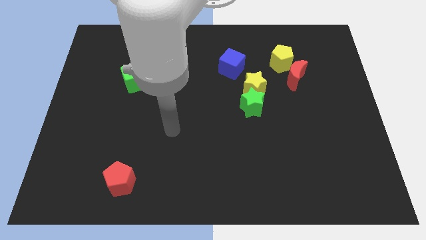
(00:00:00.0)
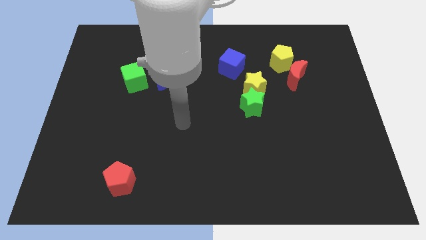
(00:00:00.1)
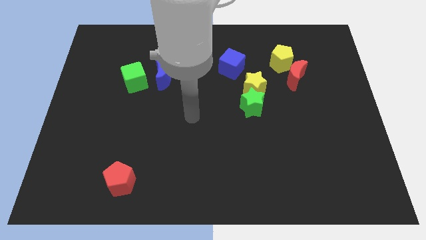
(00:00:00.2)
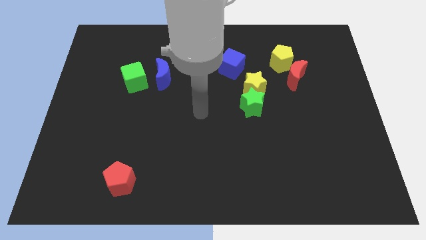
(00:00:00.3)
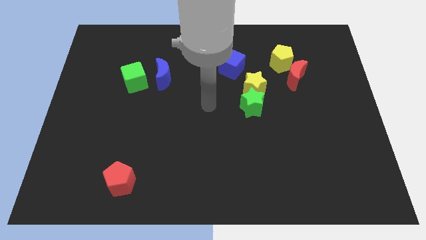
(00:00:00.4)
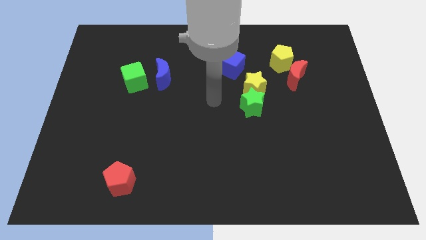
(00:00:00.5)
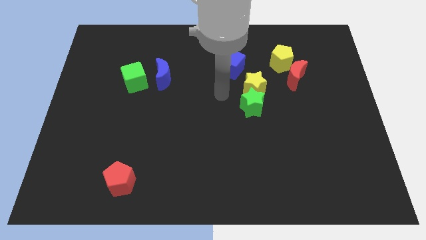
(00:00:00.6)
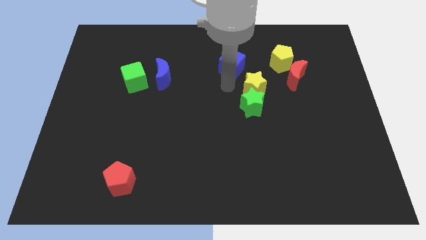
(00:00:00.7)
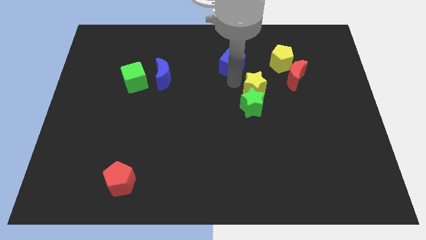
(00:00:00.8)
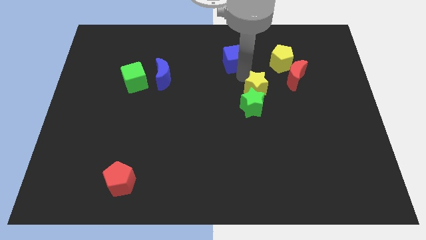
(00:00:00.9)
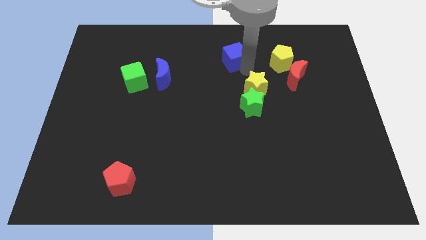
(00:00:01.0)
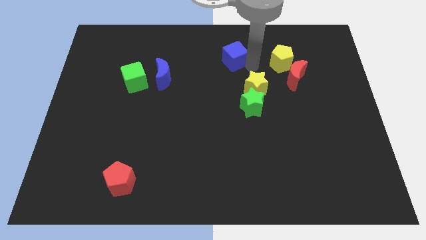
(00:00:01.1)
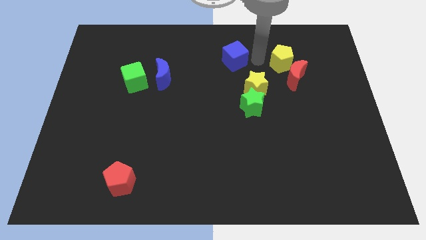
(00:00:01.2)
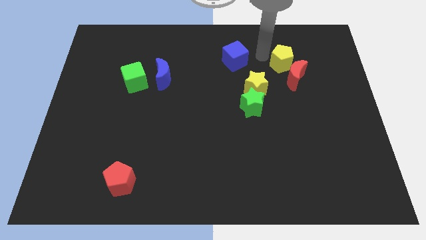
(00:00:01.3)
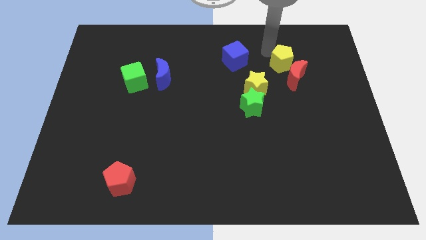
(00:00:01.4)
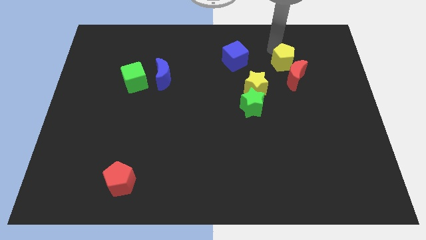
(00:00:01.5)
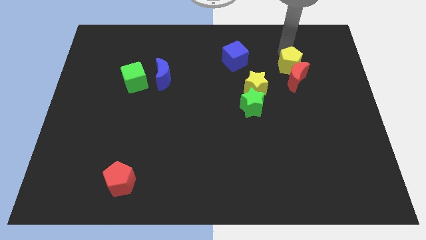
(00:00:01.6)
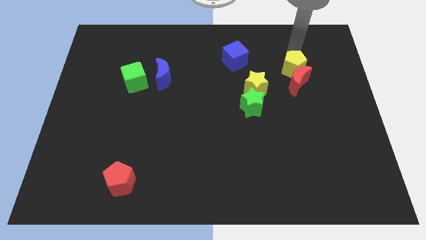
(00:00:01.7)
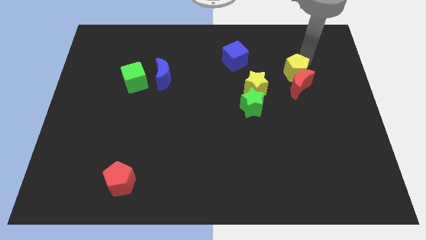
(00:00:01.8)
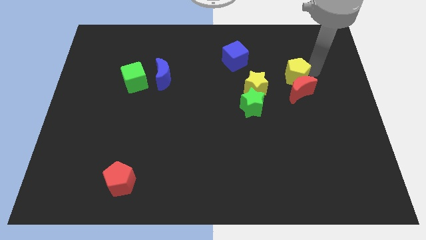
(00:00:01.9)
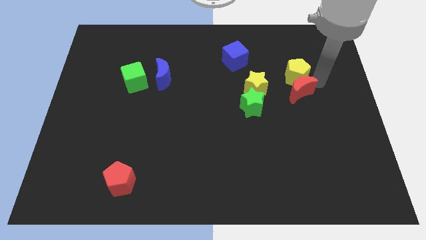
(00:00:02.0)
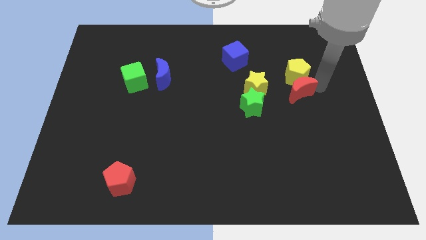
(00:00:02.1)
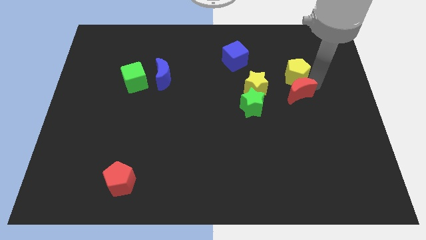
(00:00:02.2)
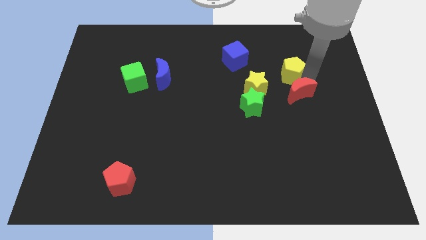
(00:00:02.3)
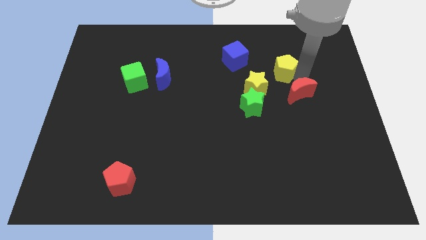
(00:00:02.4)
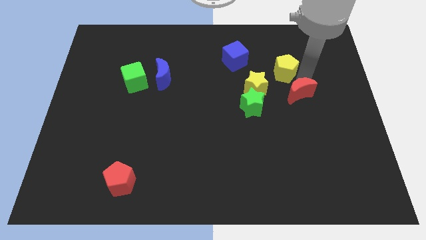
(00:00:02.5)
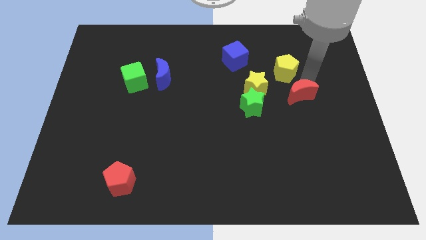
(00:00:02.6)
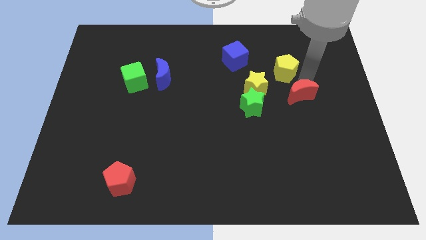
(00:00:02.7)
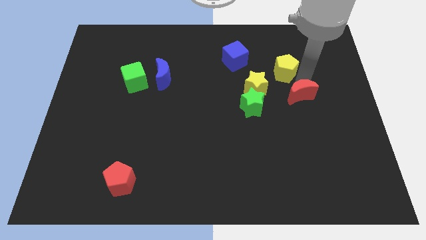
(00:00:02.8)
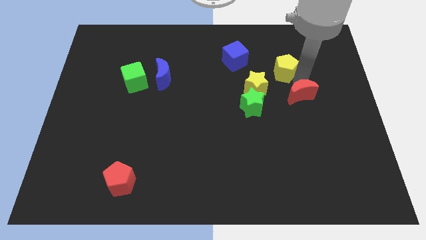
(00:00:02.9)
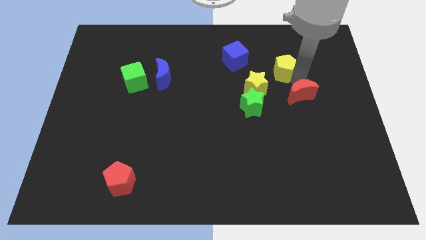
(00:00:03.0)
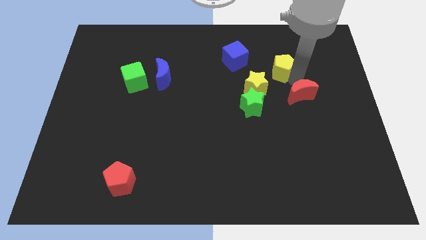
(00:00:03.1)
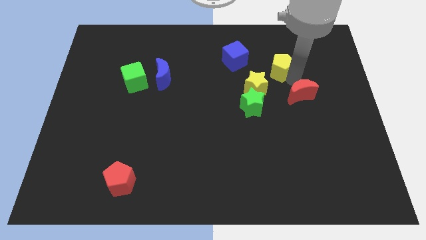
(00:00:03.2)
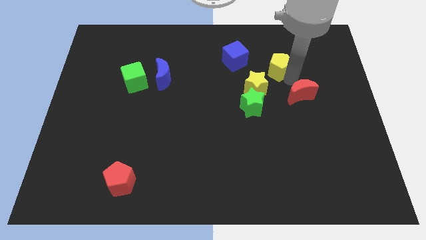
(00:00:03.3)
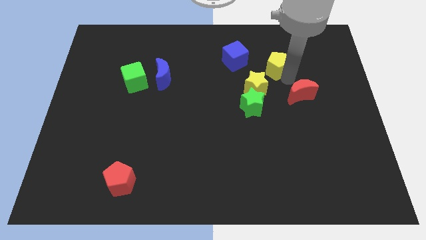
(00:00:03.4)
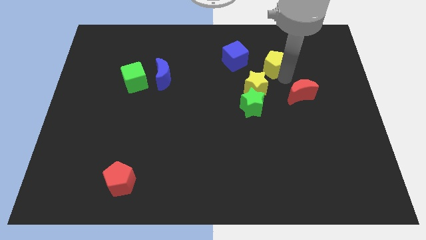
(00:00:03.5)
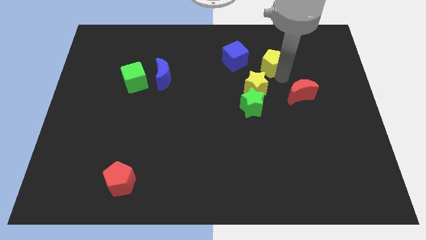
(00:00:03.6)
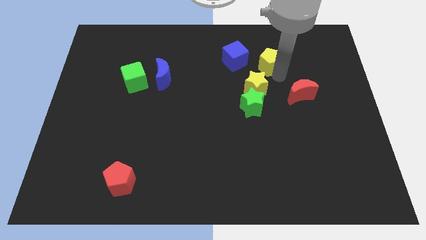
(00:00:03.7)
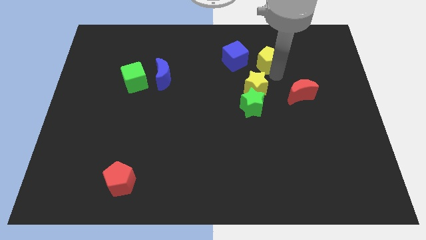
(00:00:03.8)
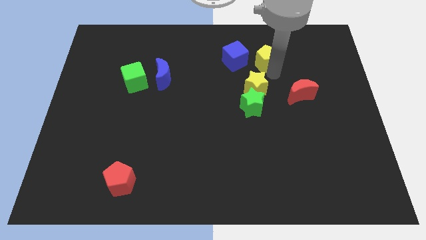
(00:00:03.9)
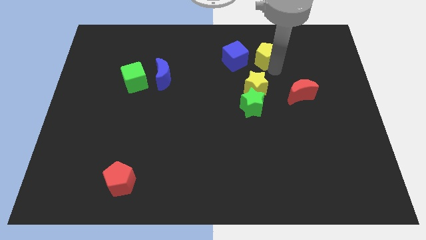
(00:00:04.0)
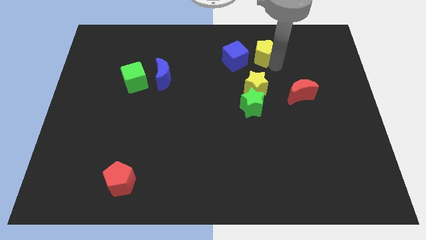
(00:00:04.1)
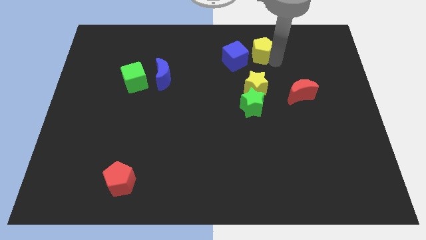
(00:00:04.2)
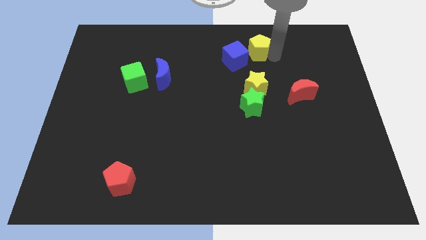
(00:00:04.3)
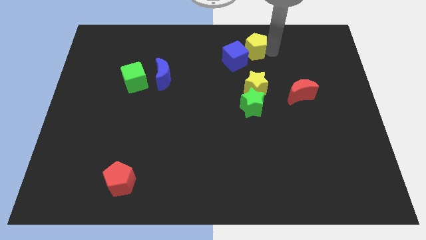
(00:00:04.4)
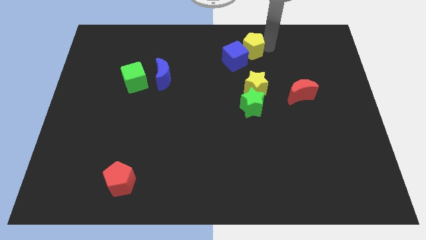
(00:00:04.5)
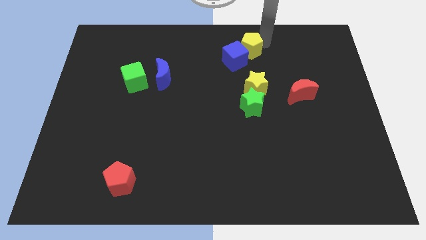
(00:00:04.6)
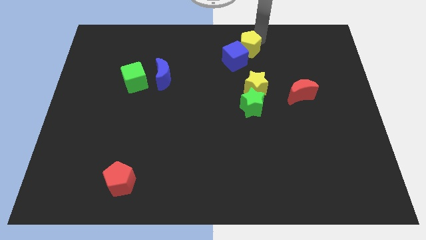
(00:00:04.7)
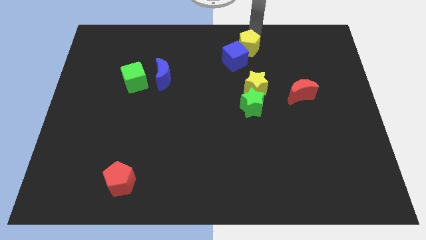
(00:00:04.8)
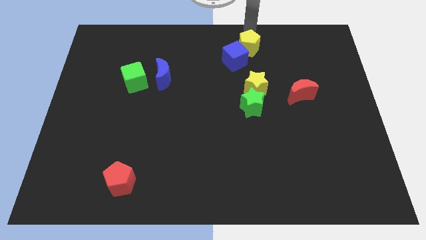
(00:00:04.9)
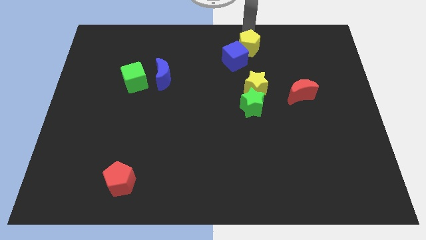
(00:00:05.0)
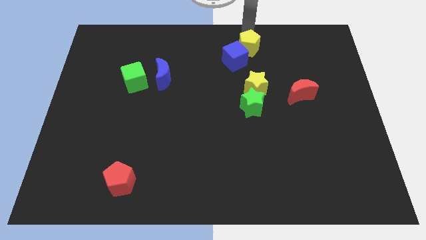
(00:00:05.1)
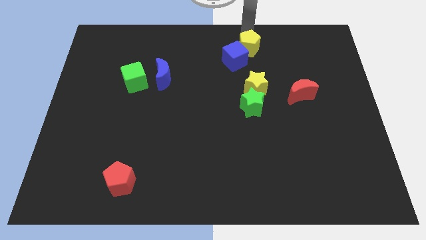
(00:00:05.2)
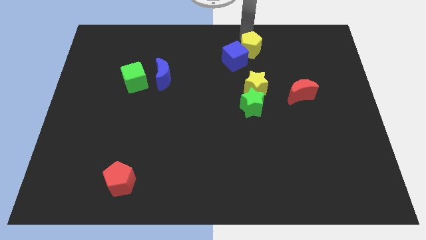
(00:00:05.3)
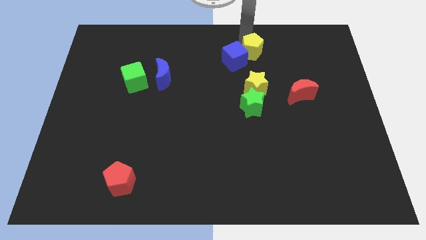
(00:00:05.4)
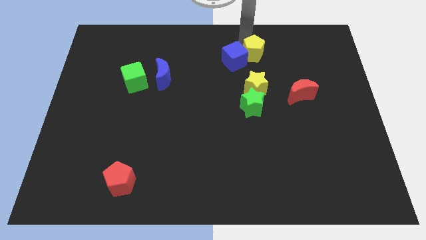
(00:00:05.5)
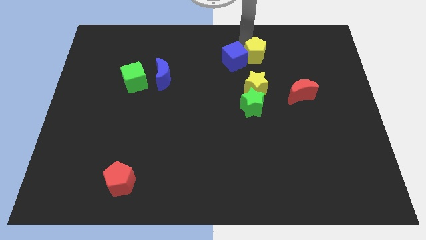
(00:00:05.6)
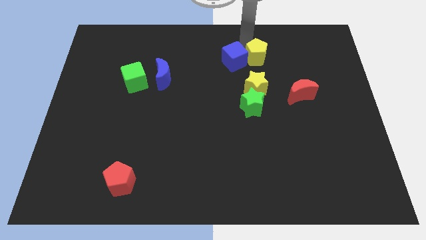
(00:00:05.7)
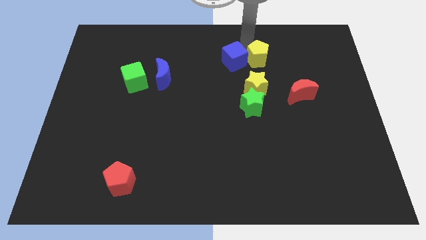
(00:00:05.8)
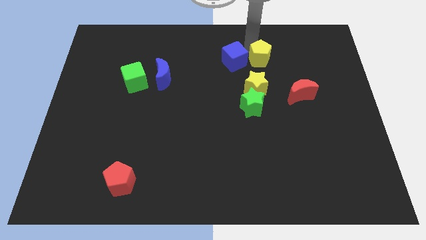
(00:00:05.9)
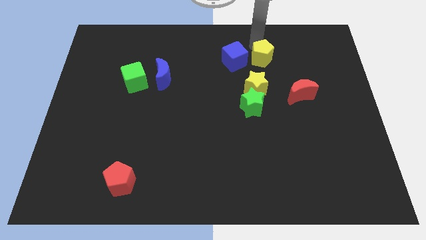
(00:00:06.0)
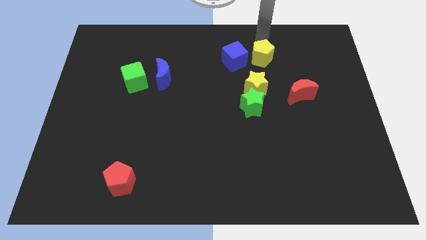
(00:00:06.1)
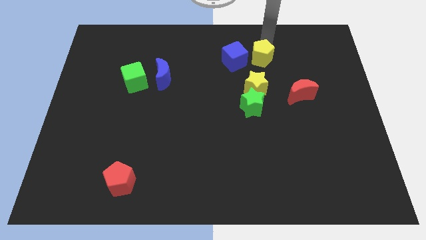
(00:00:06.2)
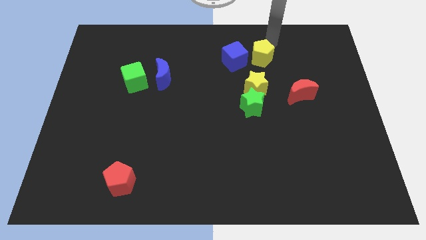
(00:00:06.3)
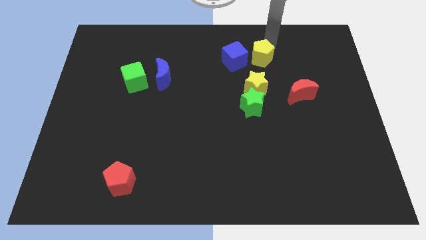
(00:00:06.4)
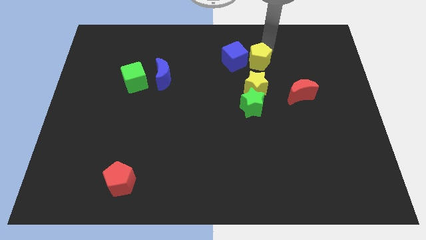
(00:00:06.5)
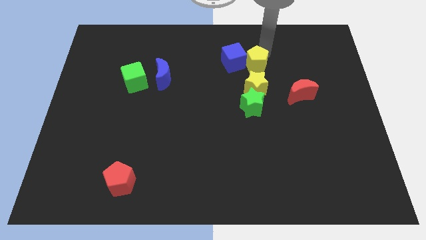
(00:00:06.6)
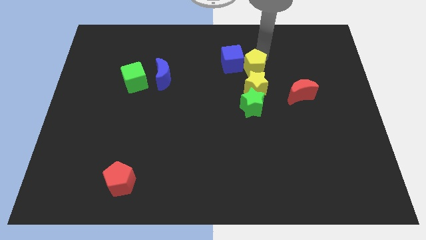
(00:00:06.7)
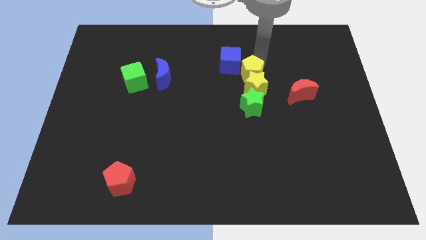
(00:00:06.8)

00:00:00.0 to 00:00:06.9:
slide the yellow pentagon a bit down and to the left

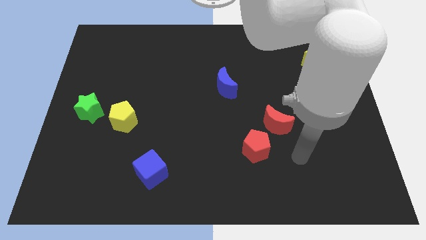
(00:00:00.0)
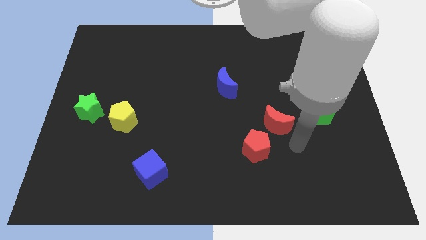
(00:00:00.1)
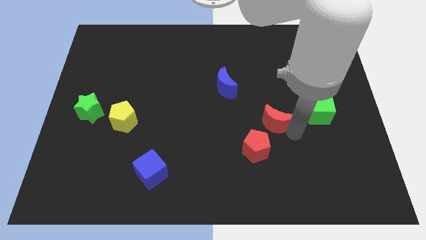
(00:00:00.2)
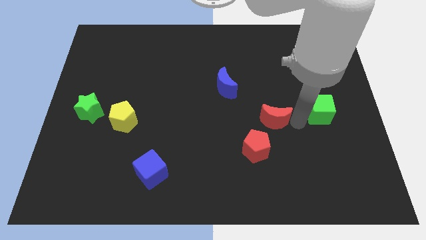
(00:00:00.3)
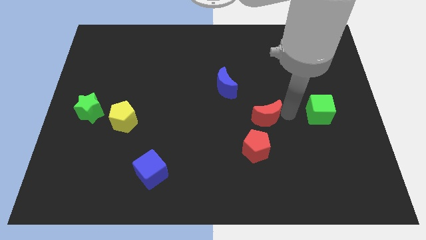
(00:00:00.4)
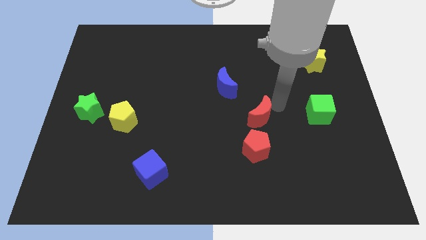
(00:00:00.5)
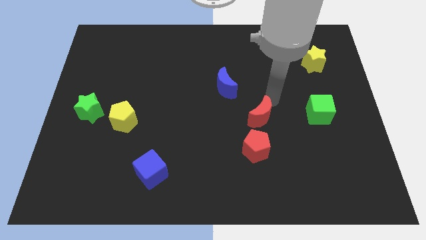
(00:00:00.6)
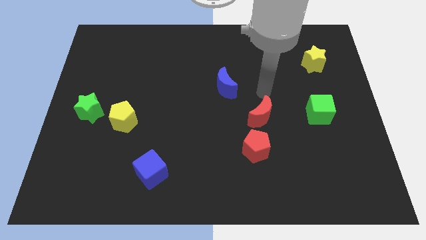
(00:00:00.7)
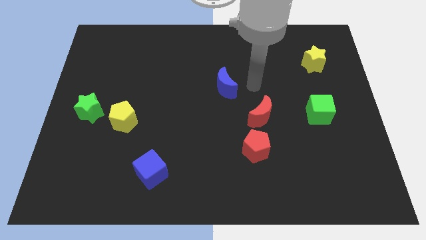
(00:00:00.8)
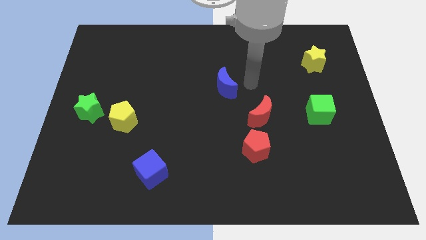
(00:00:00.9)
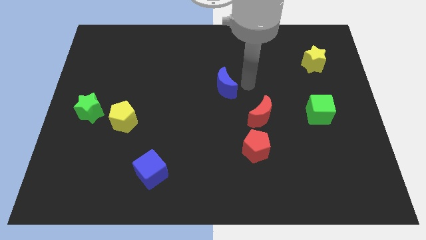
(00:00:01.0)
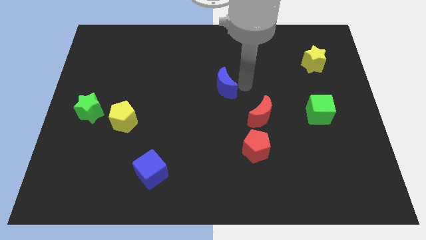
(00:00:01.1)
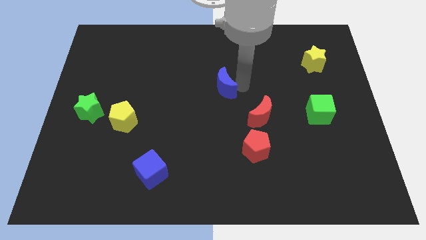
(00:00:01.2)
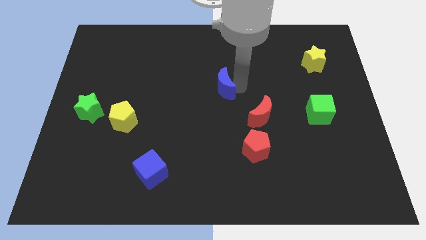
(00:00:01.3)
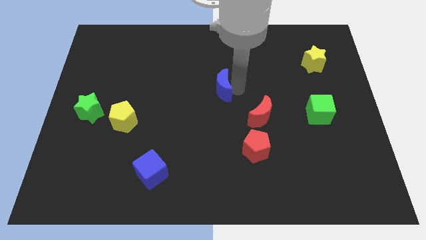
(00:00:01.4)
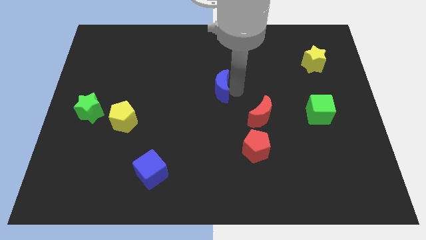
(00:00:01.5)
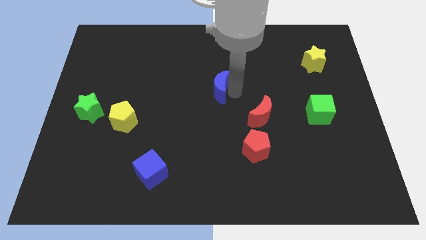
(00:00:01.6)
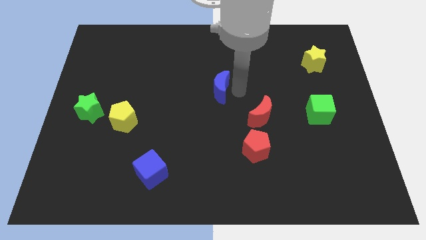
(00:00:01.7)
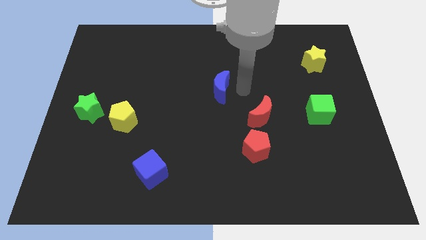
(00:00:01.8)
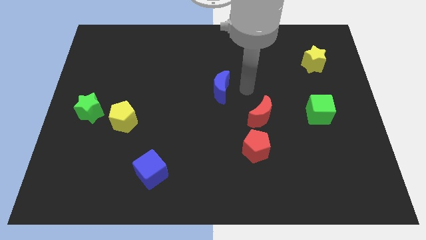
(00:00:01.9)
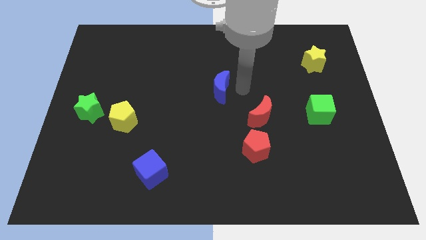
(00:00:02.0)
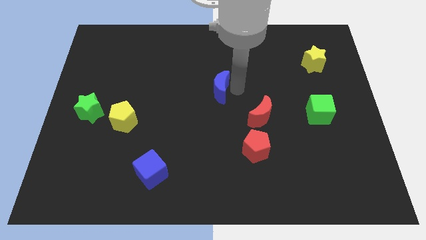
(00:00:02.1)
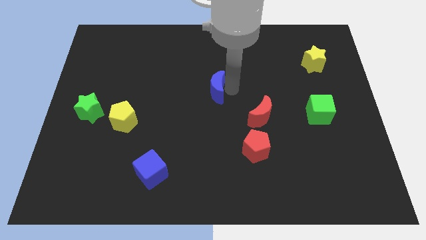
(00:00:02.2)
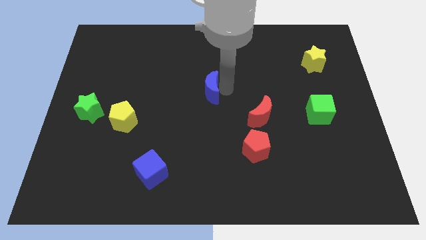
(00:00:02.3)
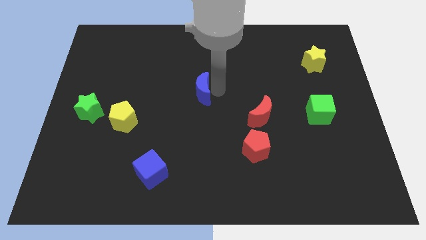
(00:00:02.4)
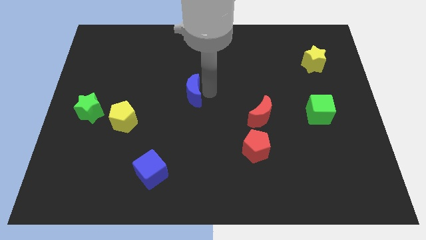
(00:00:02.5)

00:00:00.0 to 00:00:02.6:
slightly move the blue moon left
